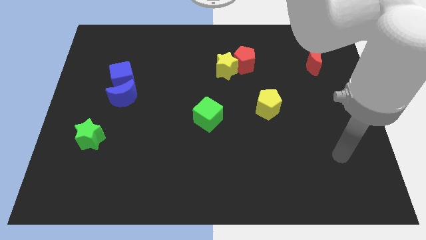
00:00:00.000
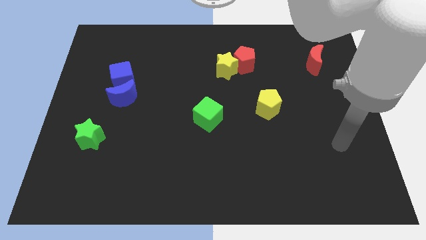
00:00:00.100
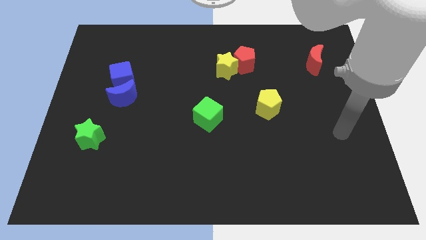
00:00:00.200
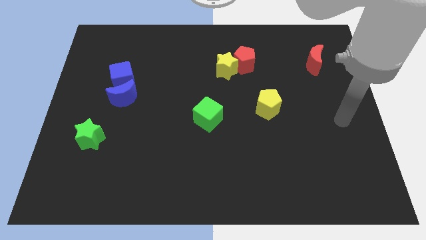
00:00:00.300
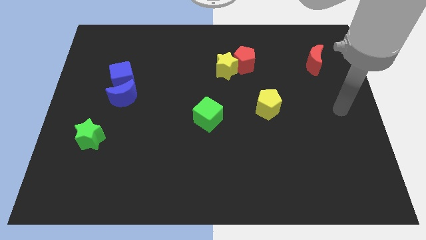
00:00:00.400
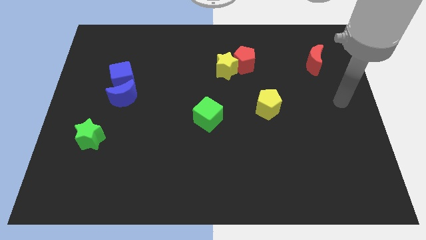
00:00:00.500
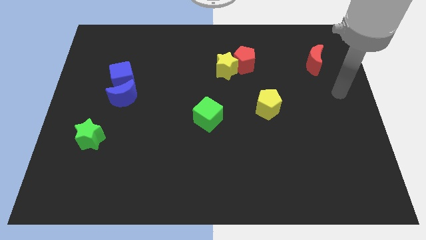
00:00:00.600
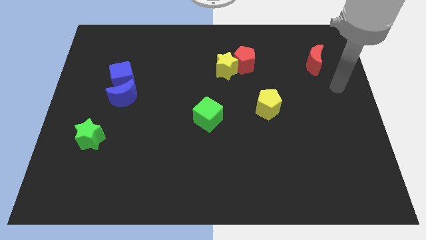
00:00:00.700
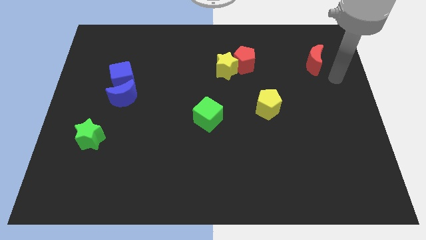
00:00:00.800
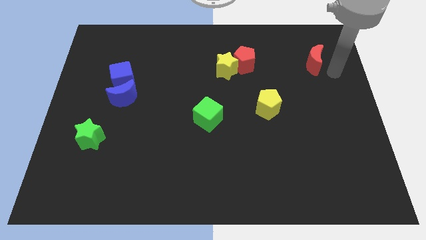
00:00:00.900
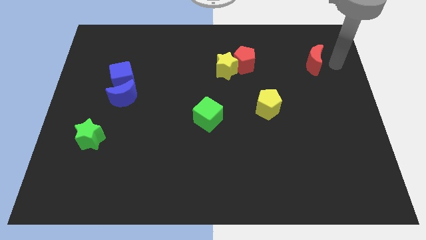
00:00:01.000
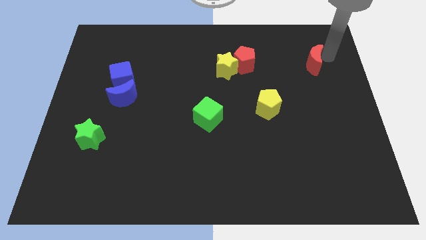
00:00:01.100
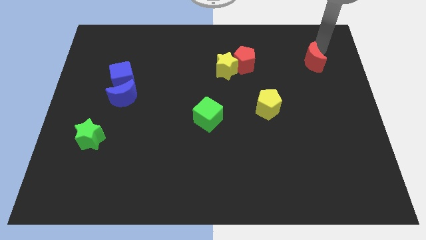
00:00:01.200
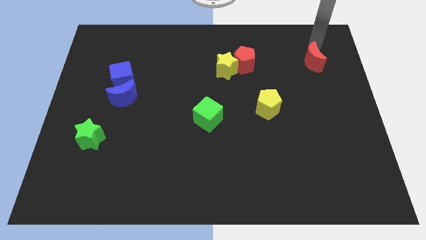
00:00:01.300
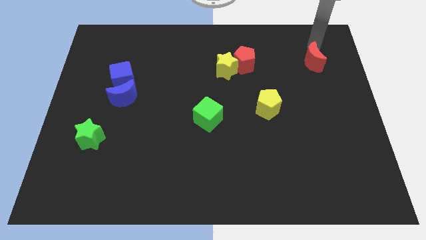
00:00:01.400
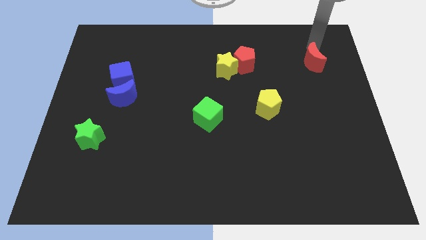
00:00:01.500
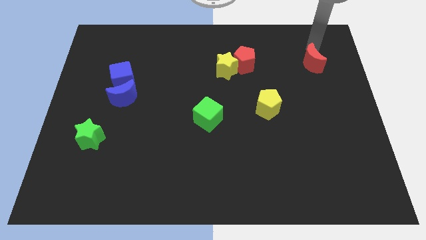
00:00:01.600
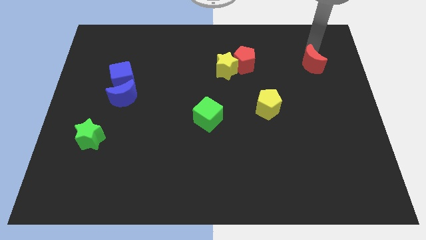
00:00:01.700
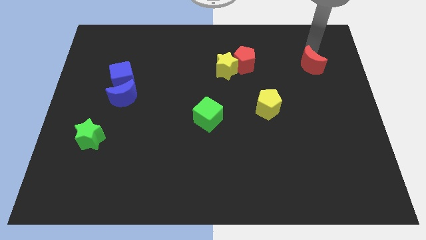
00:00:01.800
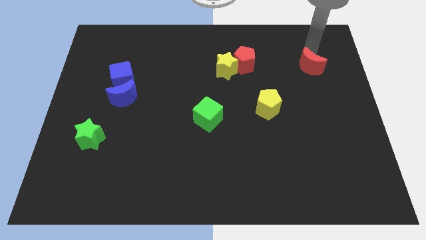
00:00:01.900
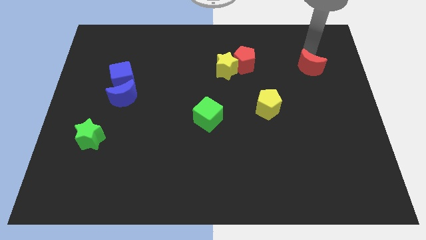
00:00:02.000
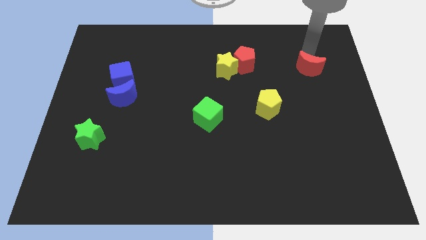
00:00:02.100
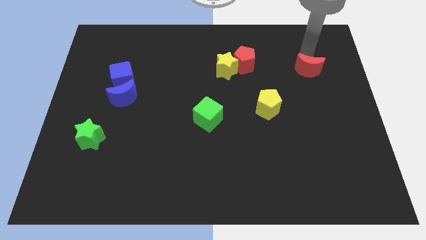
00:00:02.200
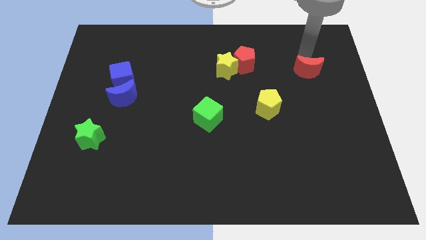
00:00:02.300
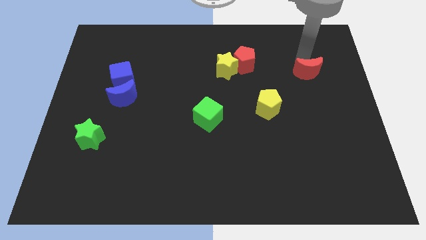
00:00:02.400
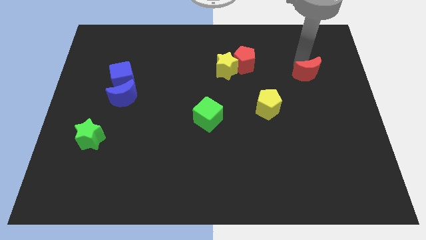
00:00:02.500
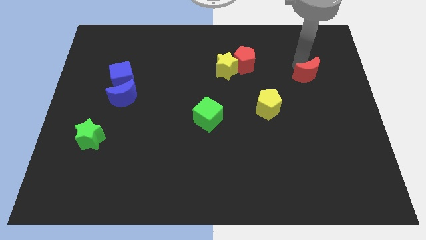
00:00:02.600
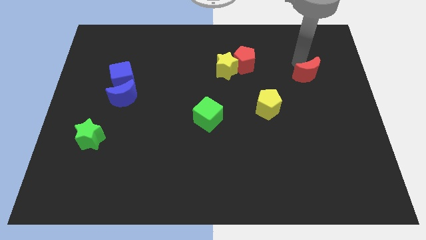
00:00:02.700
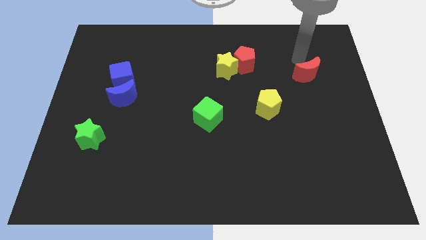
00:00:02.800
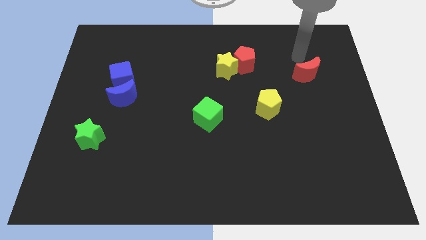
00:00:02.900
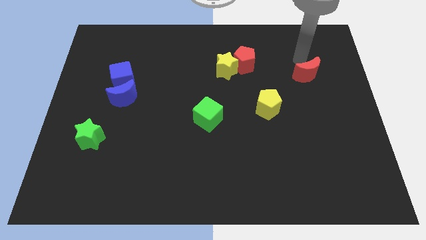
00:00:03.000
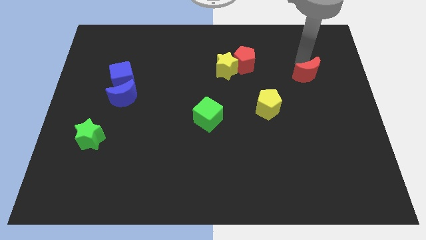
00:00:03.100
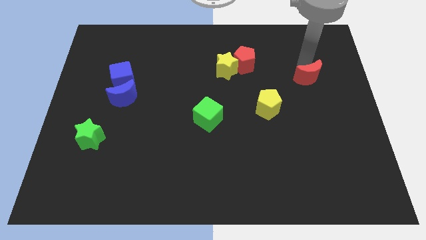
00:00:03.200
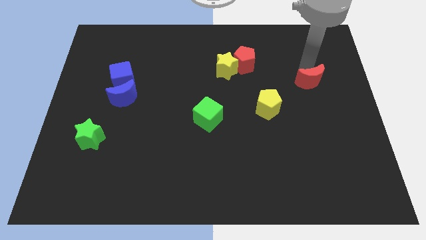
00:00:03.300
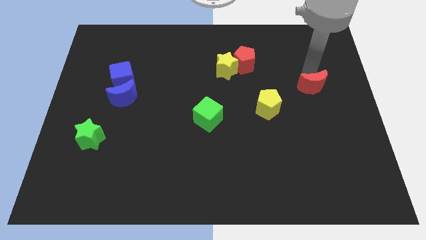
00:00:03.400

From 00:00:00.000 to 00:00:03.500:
slide the red moon somewhat down

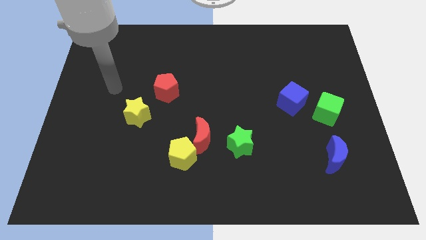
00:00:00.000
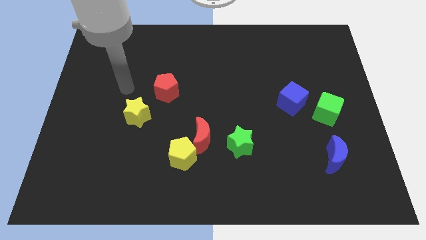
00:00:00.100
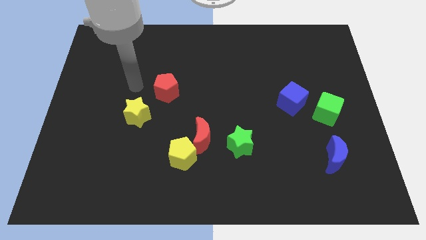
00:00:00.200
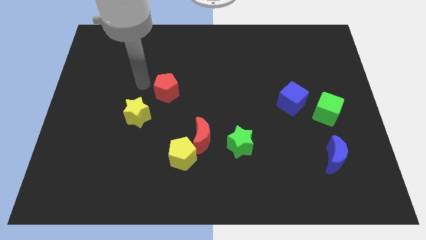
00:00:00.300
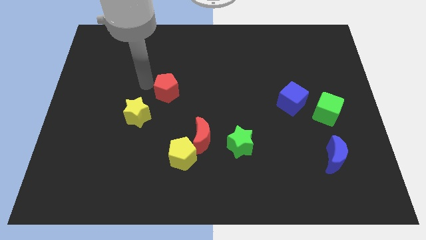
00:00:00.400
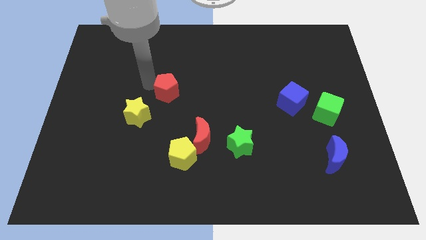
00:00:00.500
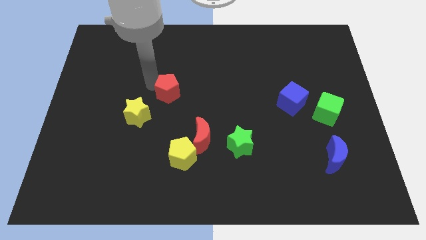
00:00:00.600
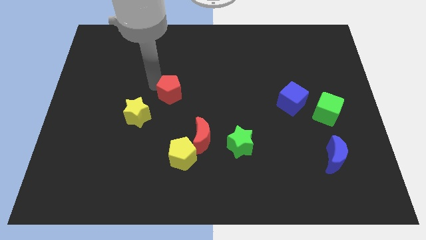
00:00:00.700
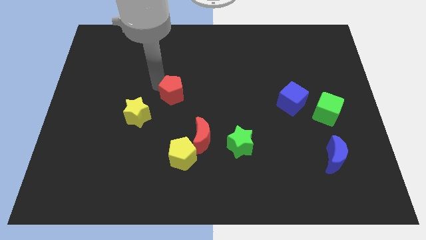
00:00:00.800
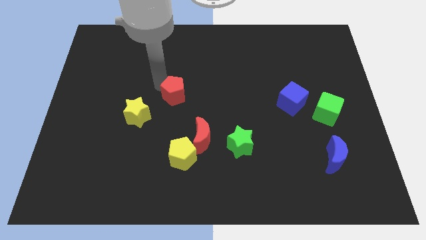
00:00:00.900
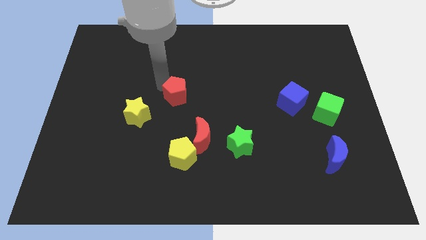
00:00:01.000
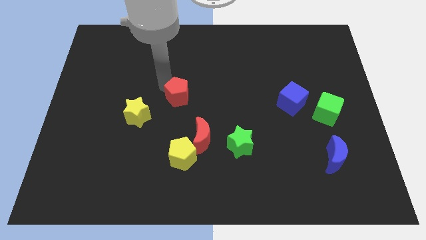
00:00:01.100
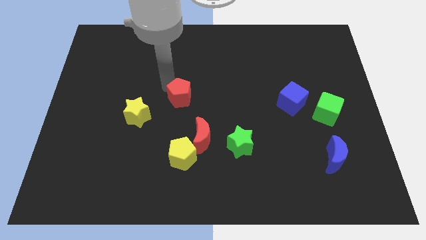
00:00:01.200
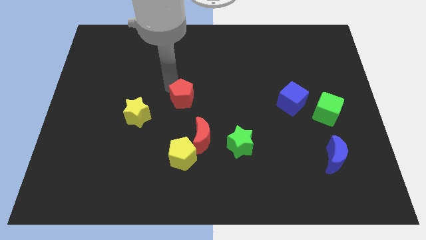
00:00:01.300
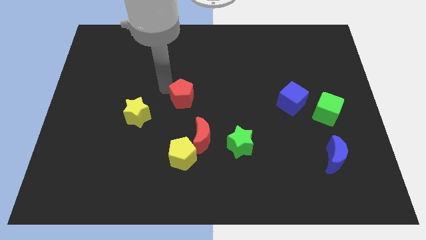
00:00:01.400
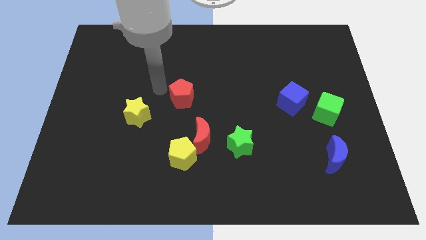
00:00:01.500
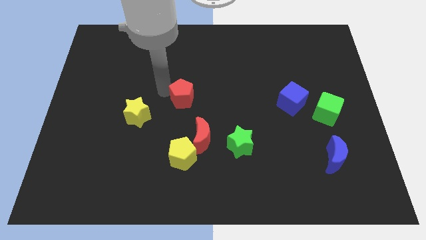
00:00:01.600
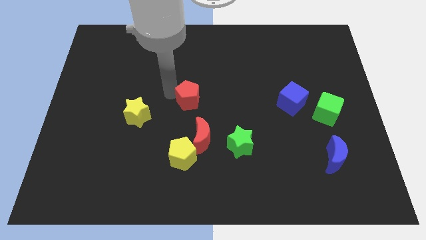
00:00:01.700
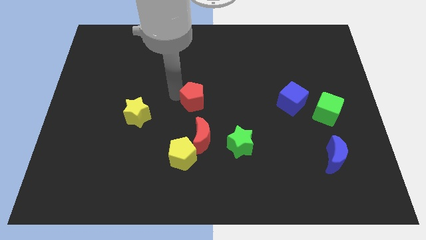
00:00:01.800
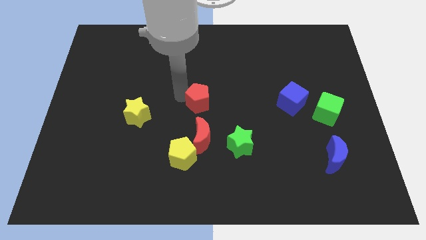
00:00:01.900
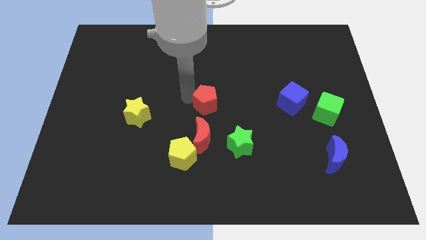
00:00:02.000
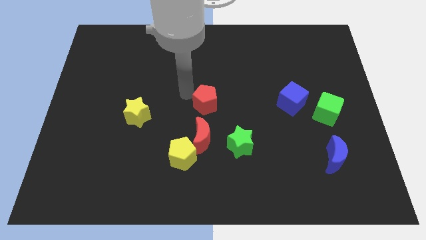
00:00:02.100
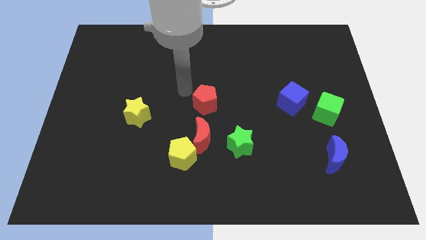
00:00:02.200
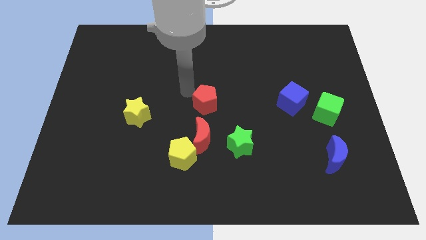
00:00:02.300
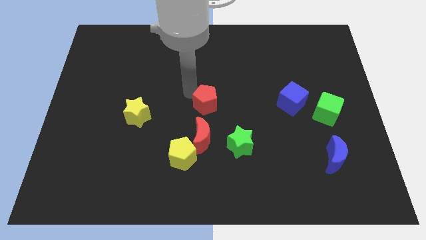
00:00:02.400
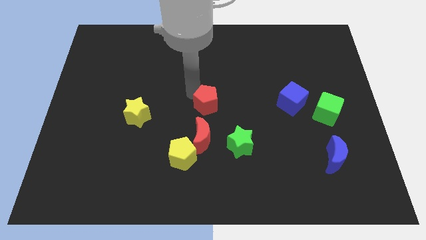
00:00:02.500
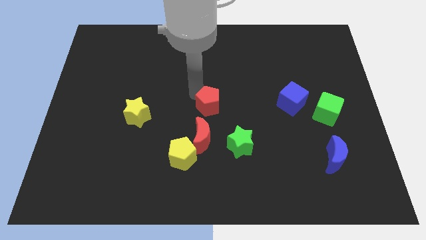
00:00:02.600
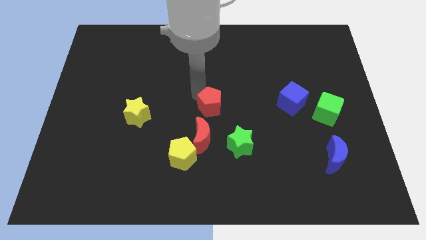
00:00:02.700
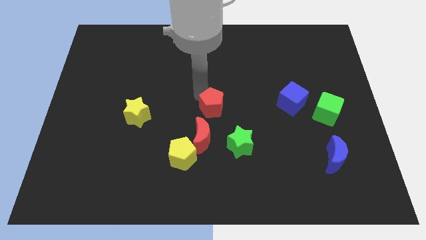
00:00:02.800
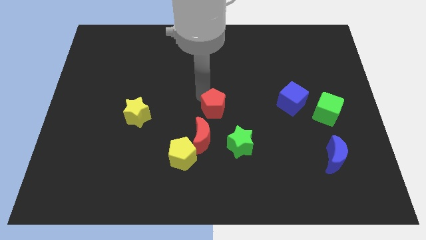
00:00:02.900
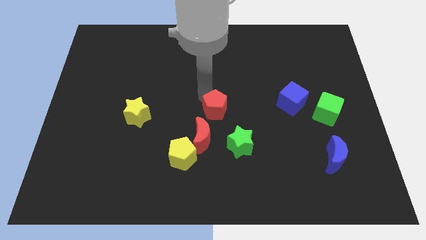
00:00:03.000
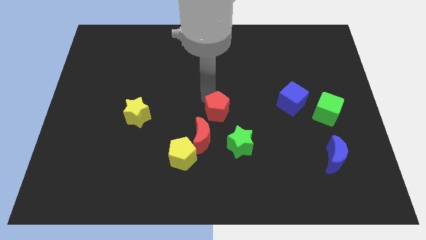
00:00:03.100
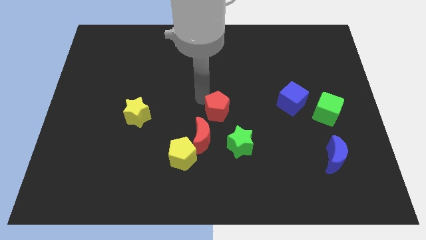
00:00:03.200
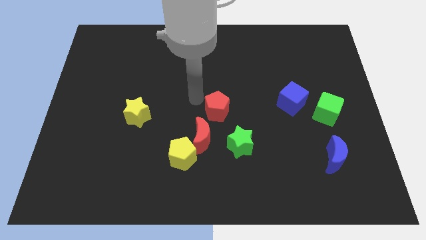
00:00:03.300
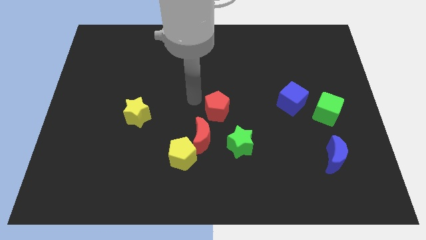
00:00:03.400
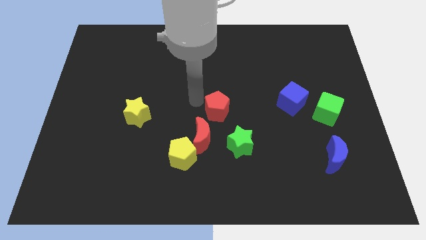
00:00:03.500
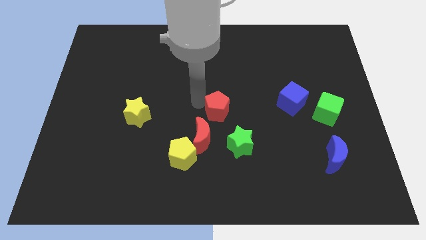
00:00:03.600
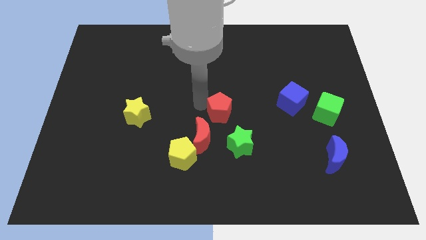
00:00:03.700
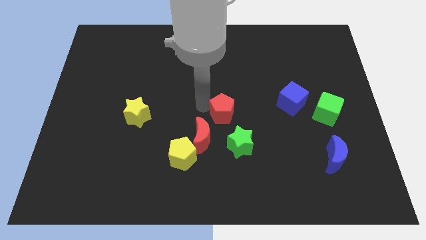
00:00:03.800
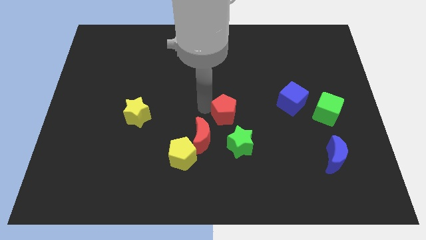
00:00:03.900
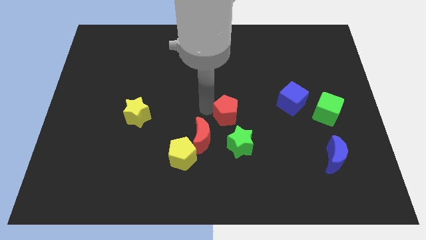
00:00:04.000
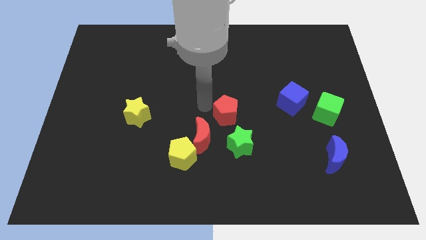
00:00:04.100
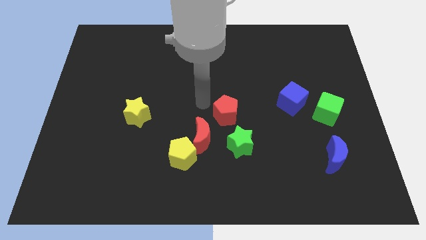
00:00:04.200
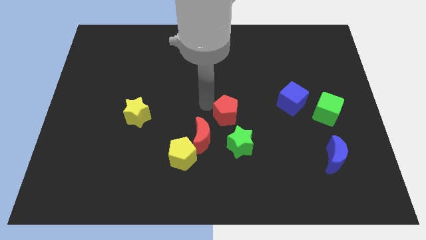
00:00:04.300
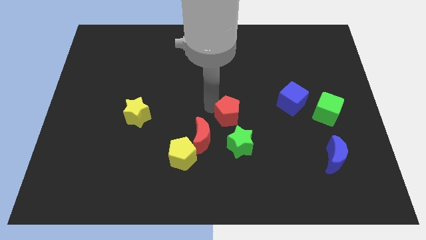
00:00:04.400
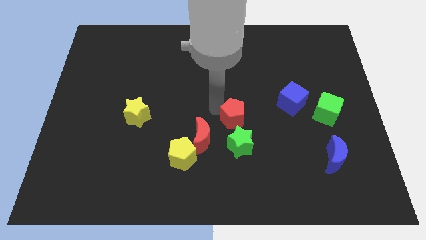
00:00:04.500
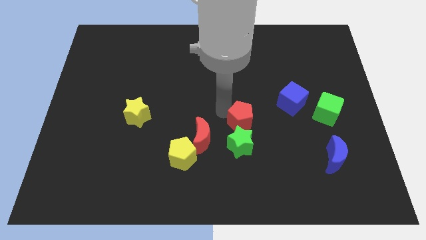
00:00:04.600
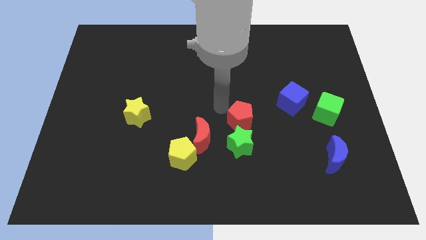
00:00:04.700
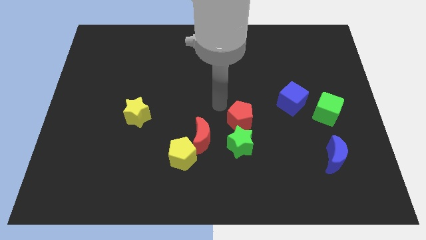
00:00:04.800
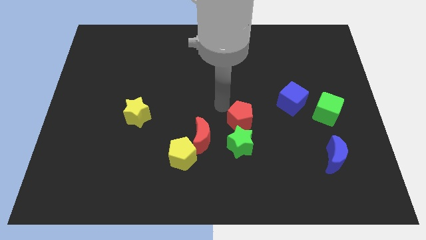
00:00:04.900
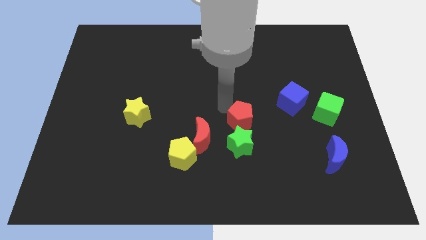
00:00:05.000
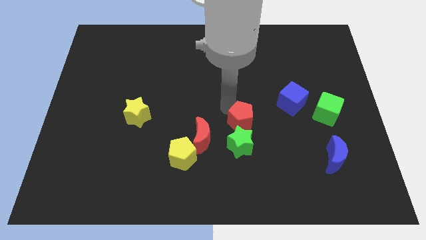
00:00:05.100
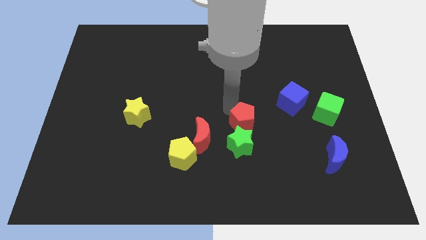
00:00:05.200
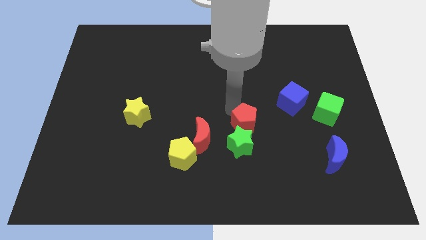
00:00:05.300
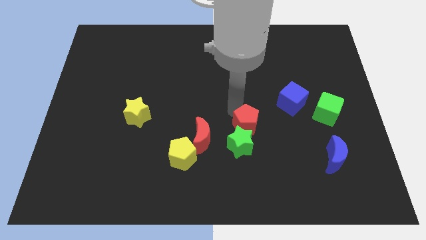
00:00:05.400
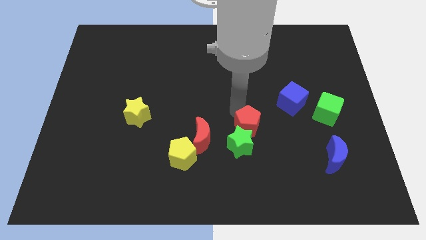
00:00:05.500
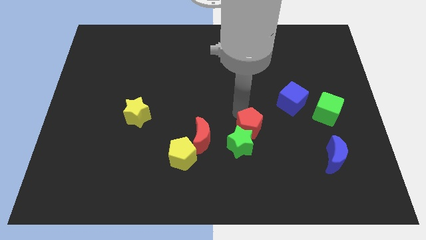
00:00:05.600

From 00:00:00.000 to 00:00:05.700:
slide the red pentagon downwards and to the right diagonally
